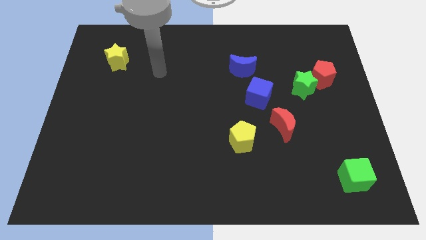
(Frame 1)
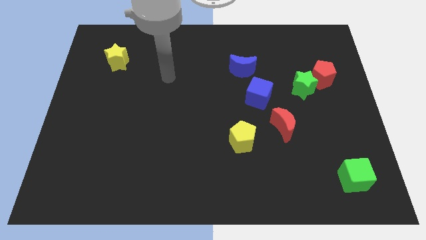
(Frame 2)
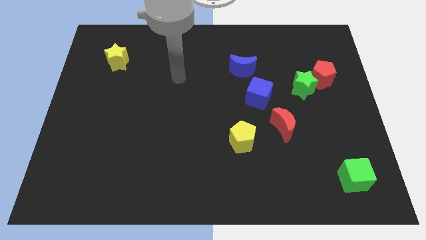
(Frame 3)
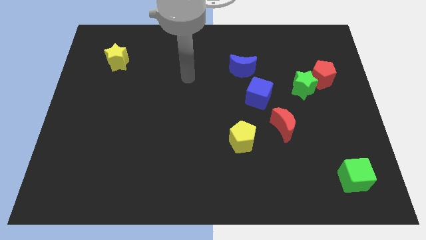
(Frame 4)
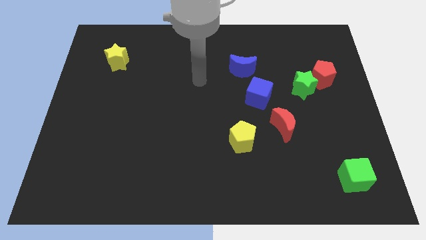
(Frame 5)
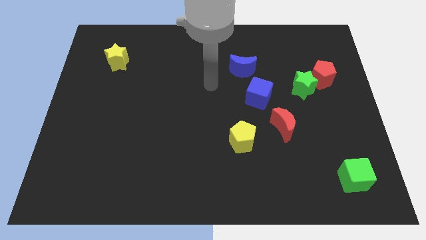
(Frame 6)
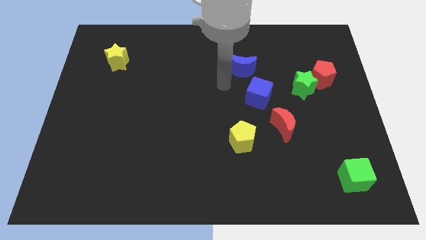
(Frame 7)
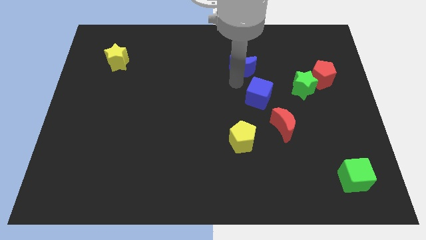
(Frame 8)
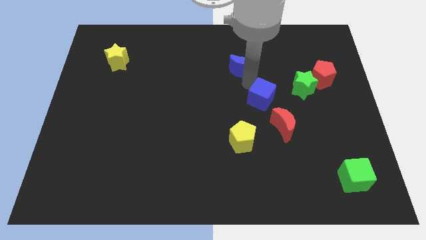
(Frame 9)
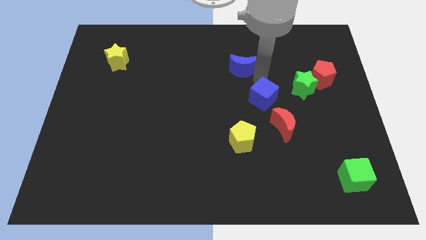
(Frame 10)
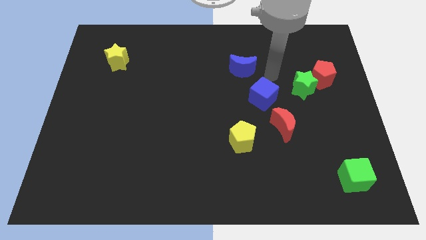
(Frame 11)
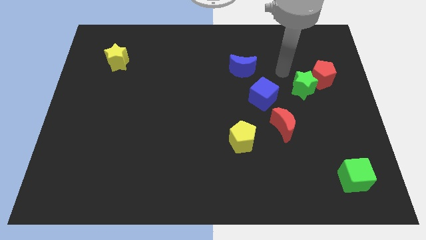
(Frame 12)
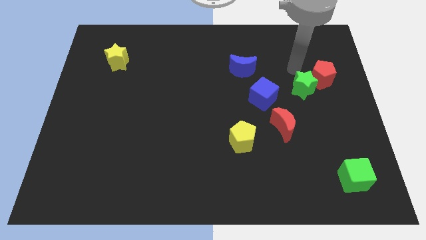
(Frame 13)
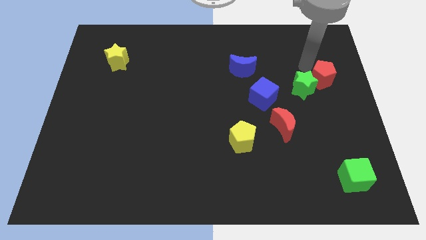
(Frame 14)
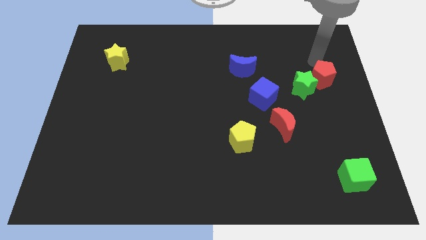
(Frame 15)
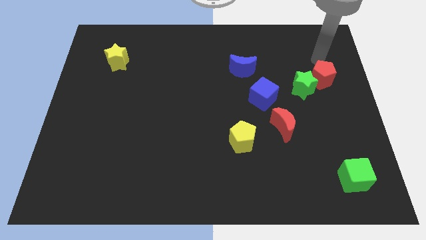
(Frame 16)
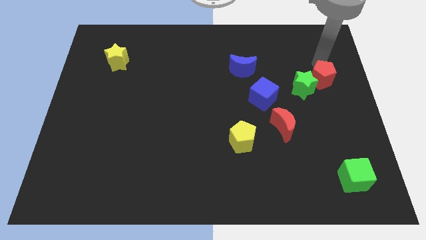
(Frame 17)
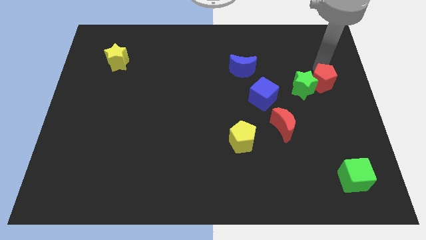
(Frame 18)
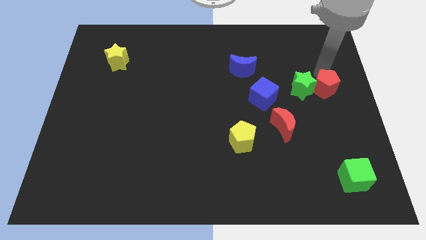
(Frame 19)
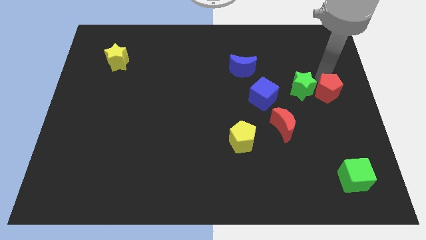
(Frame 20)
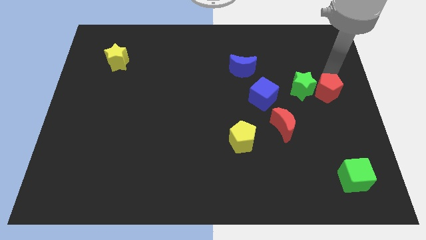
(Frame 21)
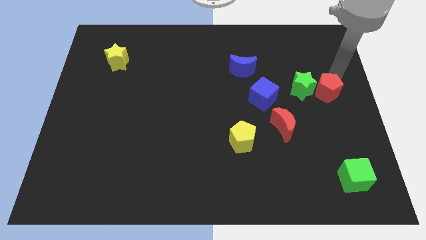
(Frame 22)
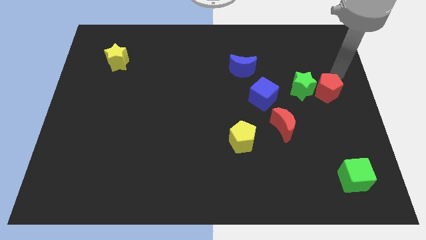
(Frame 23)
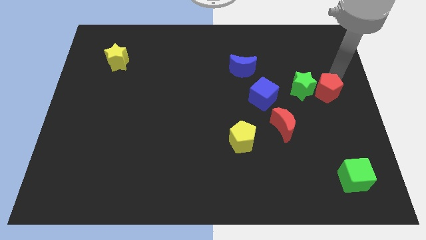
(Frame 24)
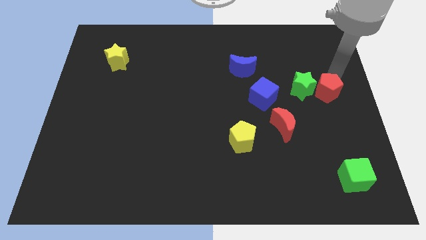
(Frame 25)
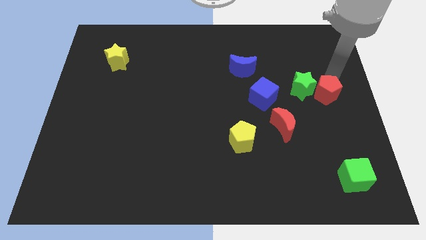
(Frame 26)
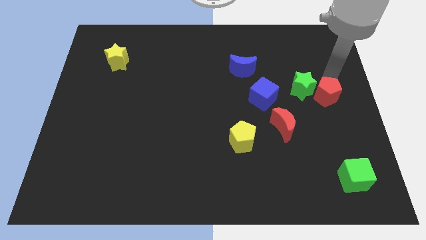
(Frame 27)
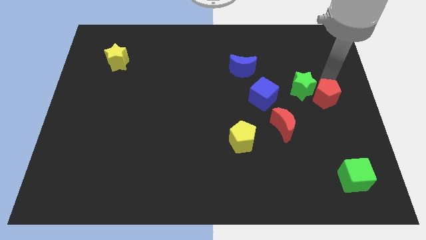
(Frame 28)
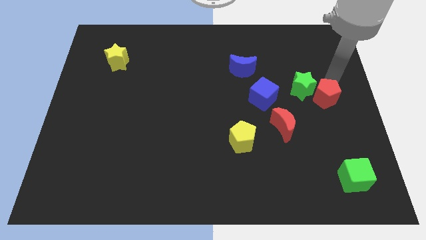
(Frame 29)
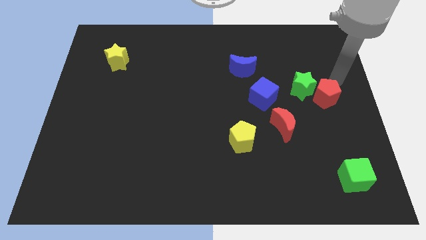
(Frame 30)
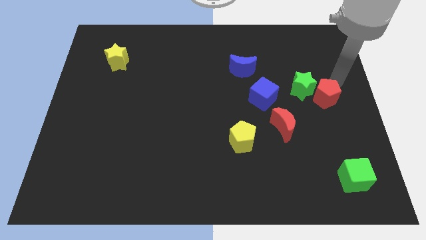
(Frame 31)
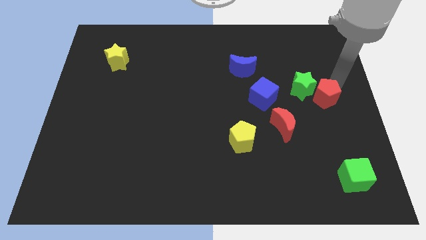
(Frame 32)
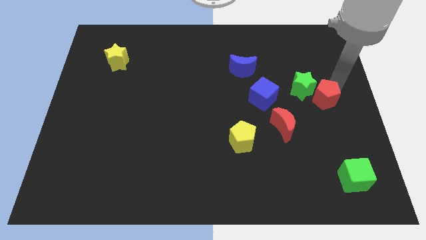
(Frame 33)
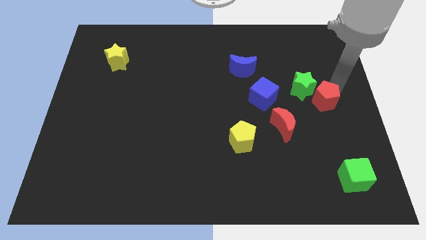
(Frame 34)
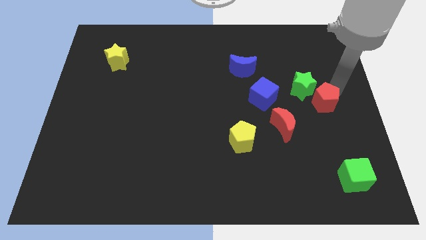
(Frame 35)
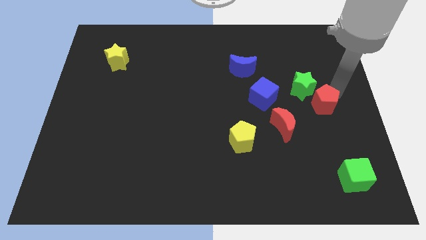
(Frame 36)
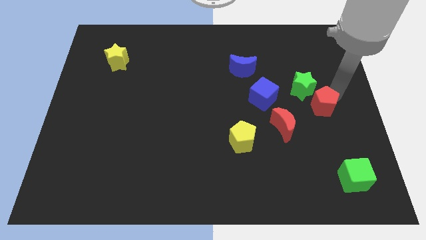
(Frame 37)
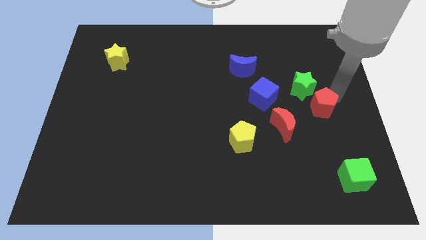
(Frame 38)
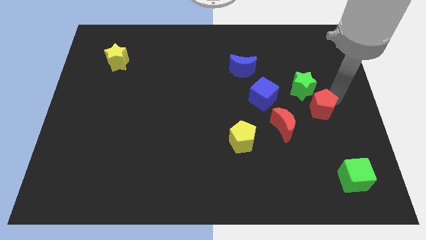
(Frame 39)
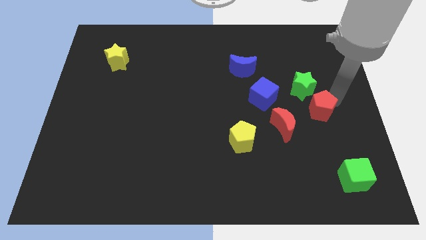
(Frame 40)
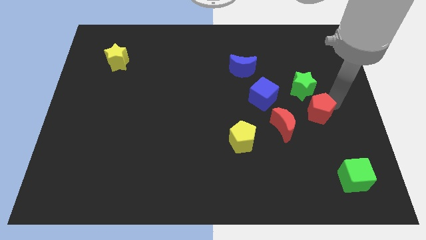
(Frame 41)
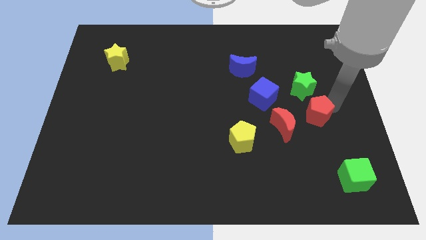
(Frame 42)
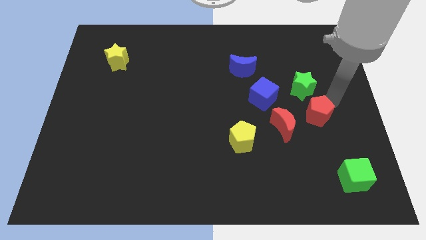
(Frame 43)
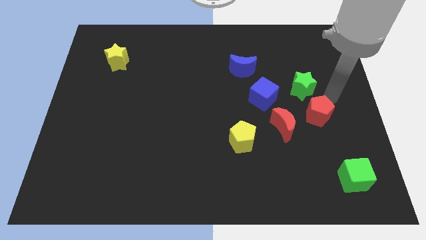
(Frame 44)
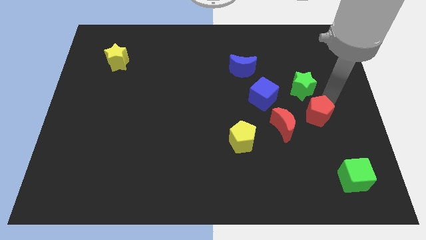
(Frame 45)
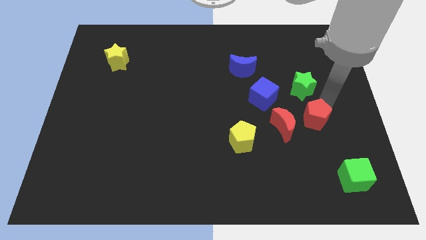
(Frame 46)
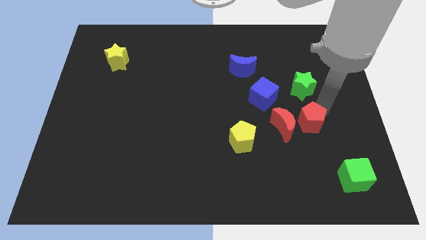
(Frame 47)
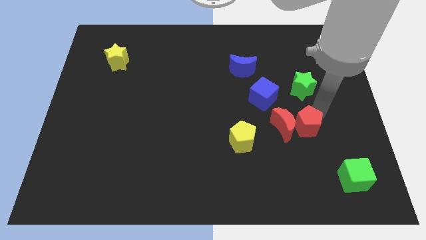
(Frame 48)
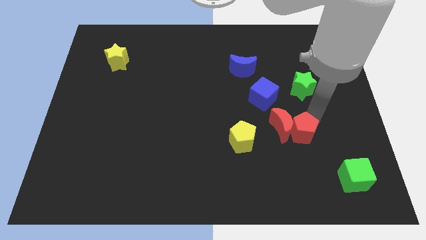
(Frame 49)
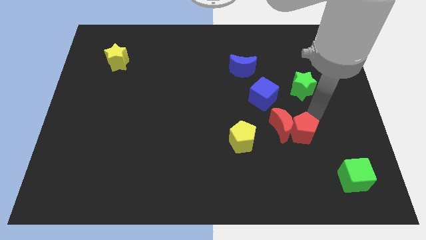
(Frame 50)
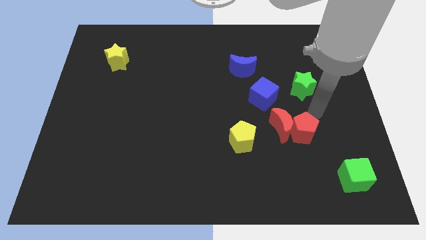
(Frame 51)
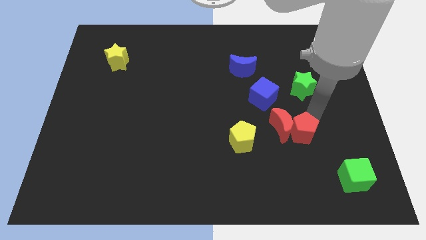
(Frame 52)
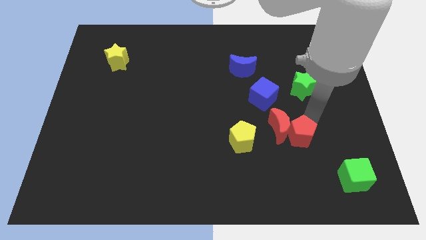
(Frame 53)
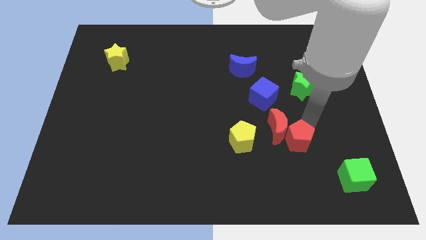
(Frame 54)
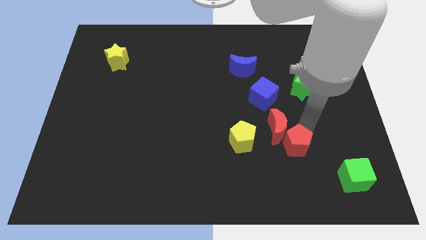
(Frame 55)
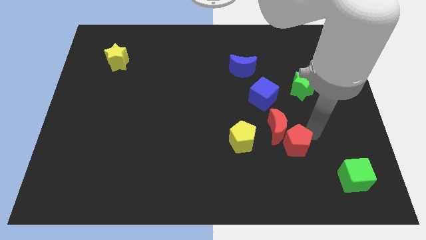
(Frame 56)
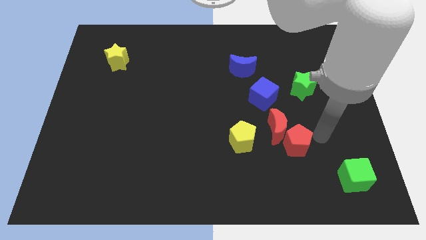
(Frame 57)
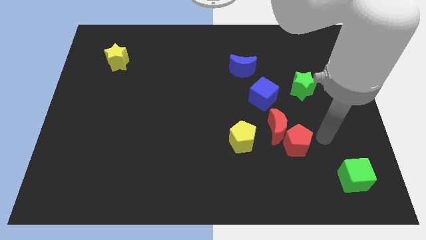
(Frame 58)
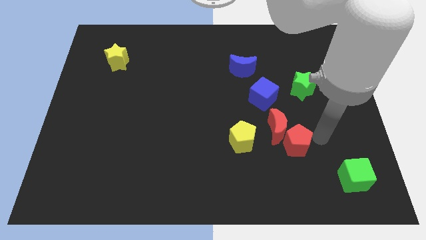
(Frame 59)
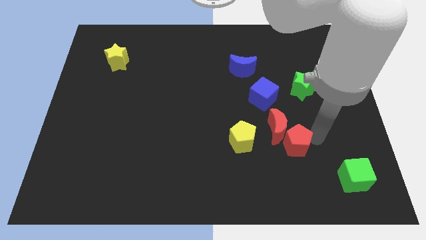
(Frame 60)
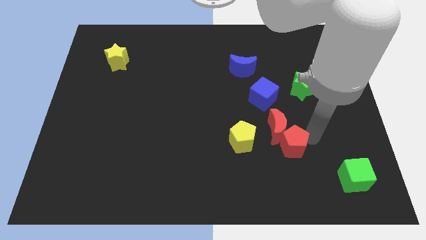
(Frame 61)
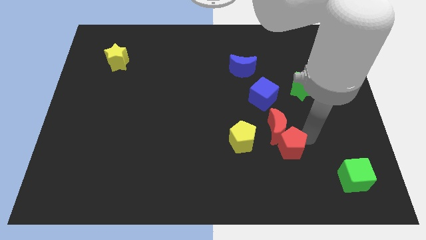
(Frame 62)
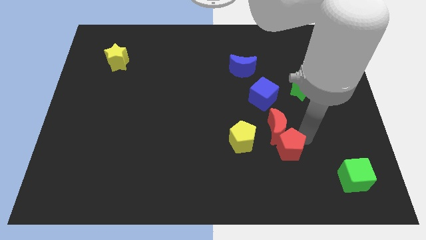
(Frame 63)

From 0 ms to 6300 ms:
slide the red pentagon down and then left

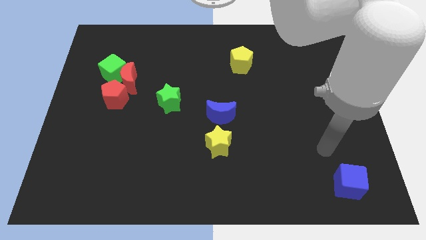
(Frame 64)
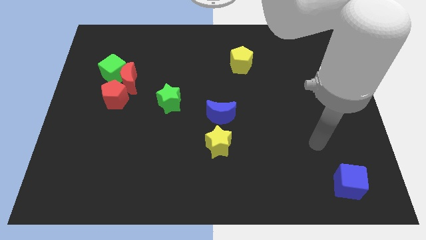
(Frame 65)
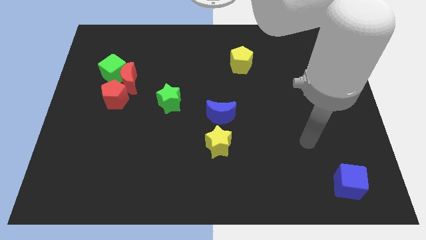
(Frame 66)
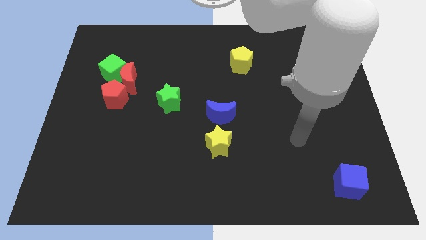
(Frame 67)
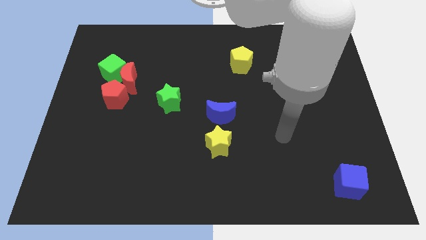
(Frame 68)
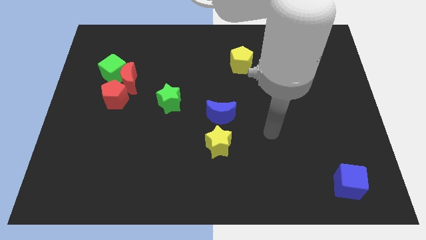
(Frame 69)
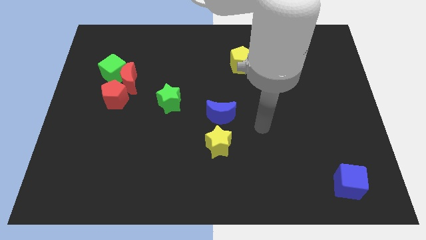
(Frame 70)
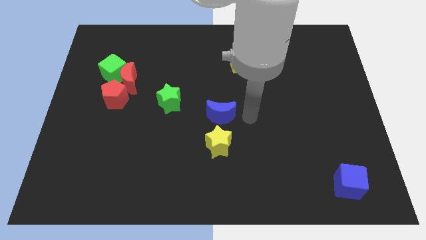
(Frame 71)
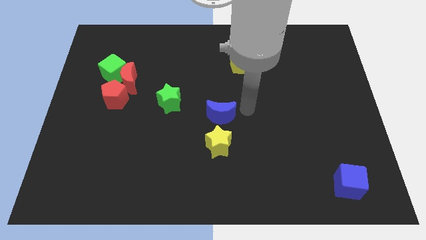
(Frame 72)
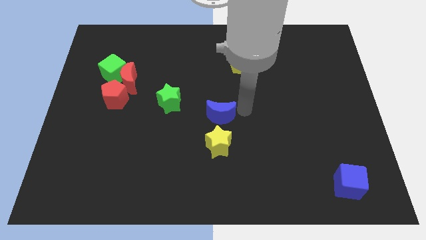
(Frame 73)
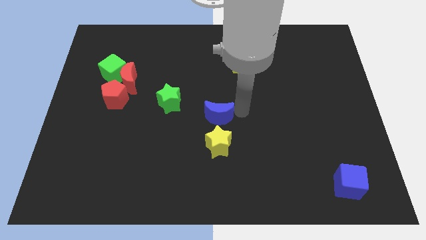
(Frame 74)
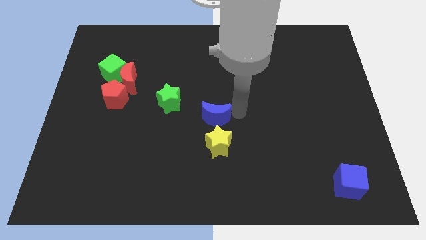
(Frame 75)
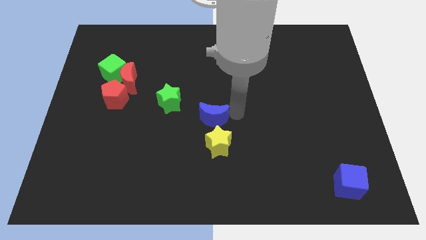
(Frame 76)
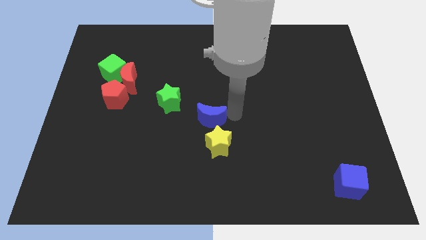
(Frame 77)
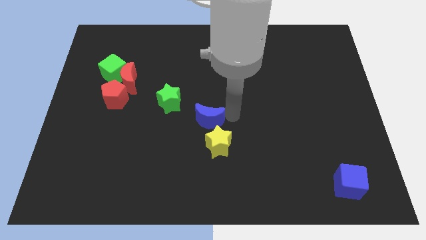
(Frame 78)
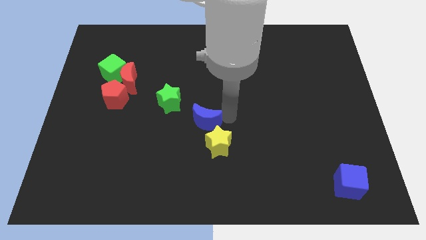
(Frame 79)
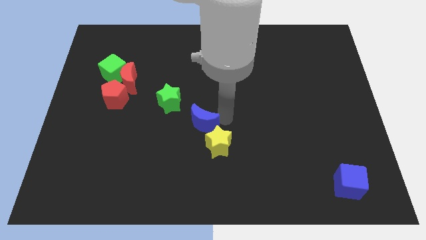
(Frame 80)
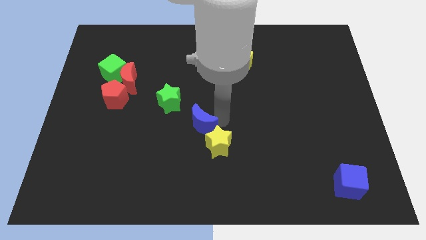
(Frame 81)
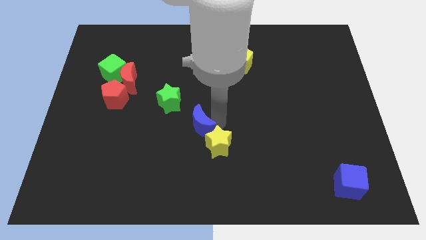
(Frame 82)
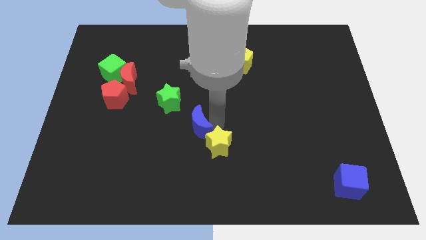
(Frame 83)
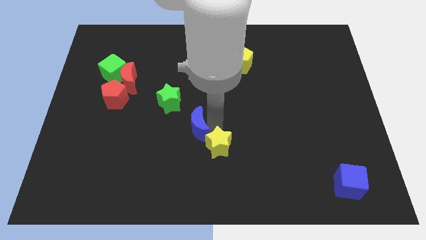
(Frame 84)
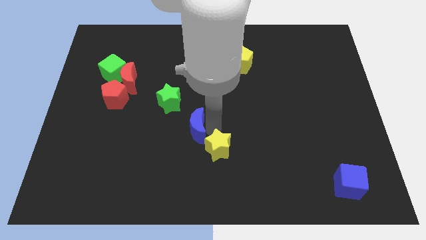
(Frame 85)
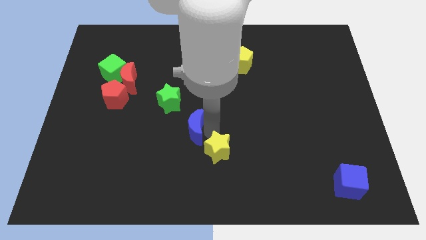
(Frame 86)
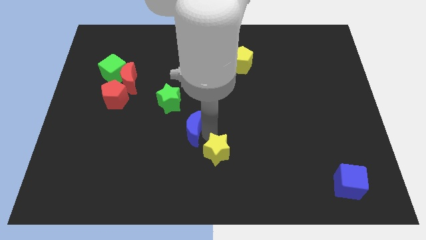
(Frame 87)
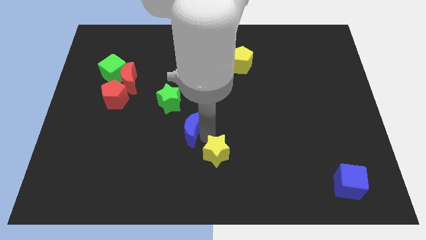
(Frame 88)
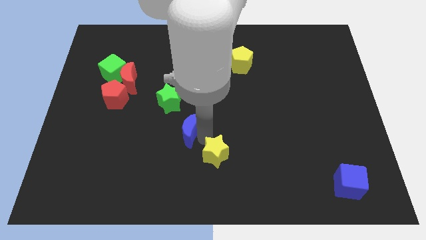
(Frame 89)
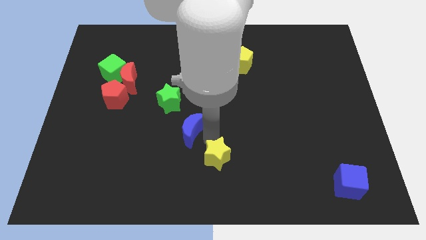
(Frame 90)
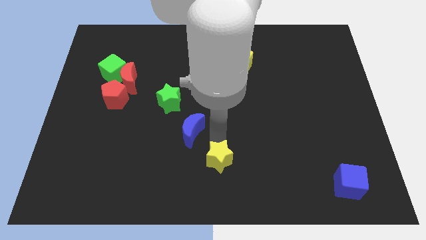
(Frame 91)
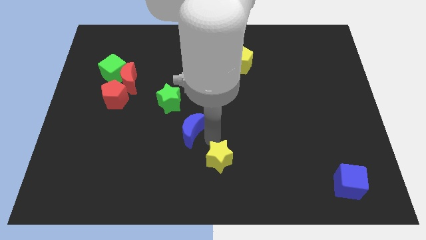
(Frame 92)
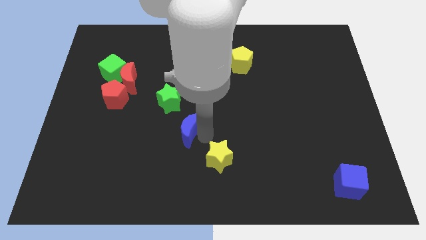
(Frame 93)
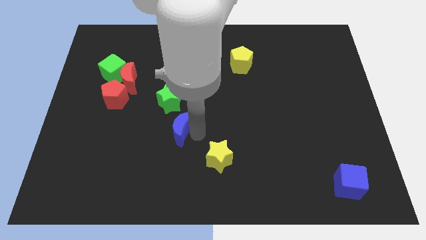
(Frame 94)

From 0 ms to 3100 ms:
slightly push the blue moon to the left
